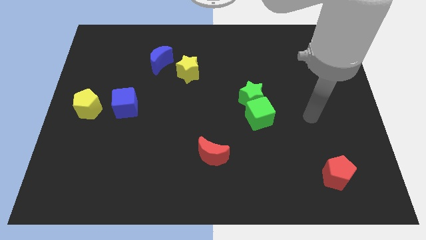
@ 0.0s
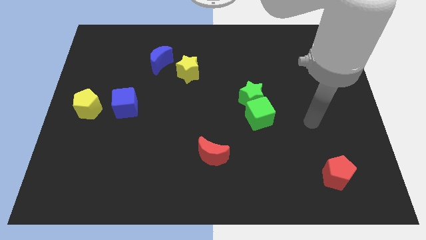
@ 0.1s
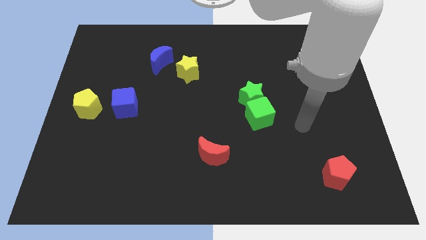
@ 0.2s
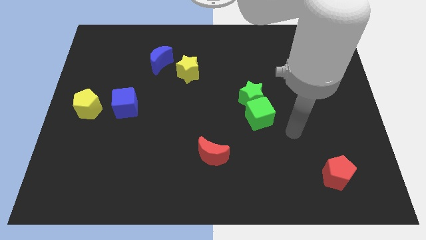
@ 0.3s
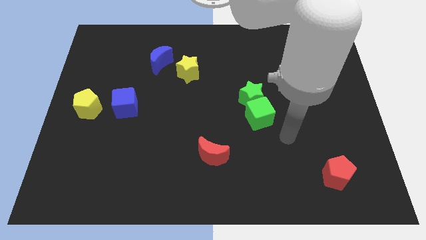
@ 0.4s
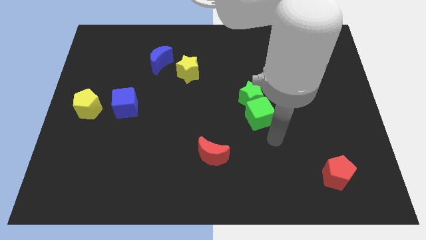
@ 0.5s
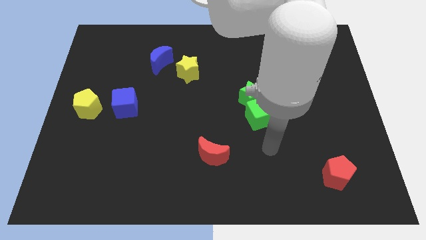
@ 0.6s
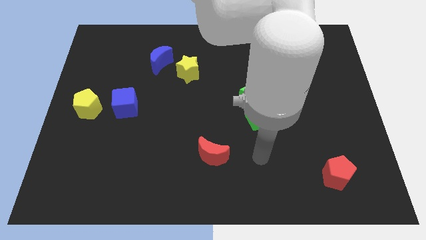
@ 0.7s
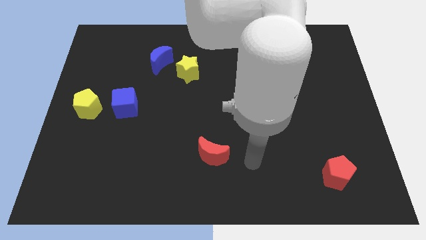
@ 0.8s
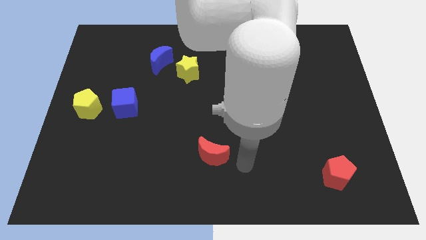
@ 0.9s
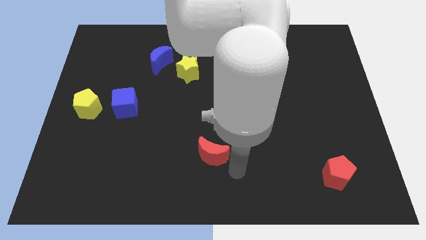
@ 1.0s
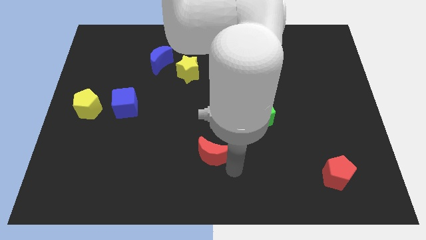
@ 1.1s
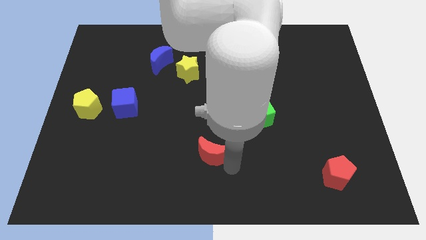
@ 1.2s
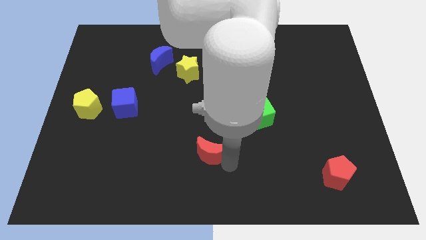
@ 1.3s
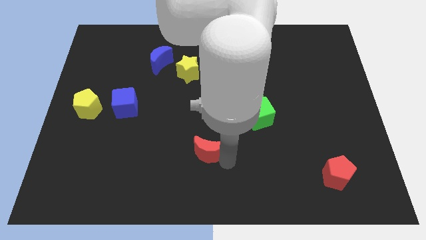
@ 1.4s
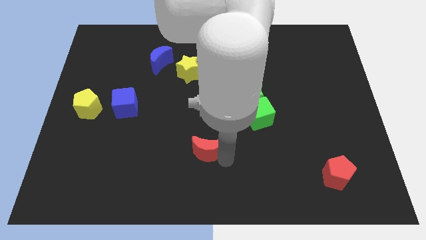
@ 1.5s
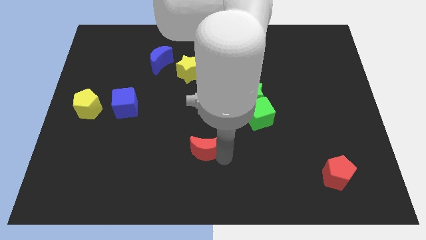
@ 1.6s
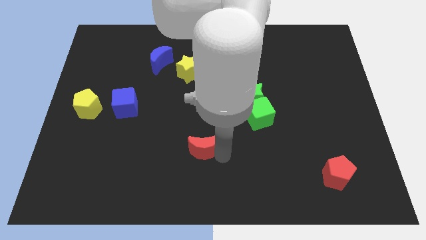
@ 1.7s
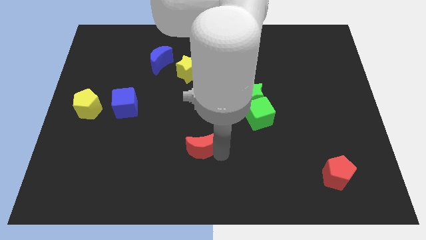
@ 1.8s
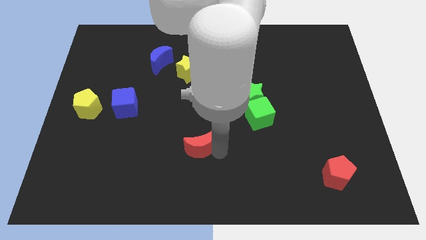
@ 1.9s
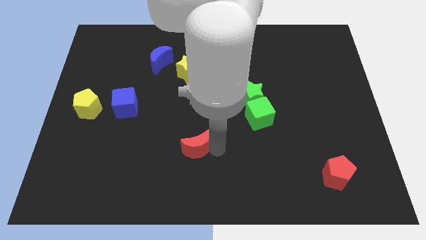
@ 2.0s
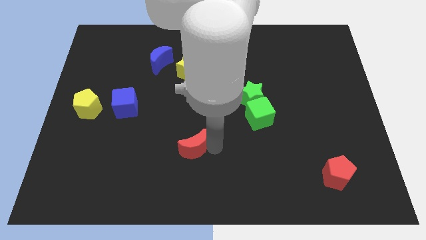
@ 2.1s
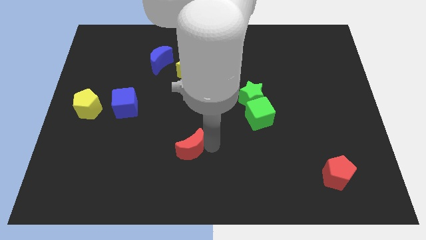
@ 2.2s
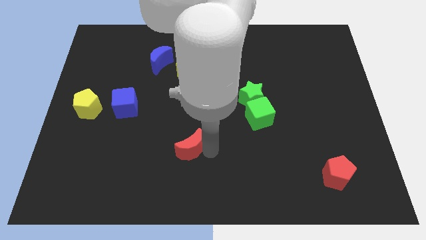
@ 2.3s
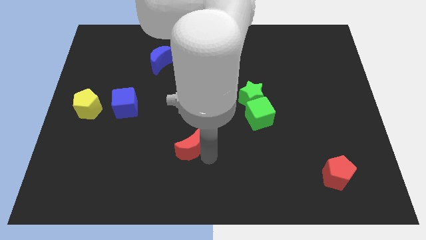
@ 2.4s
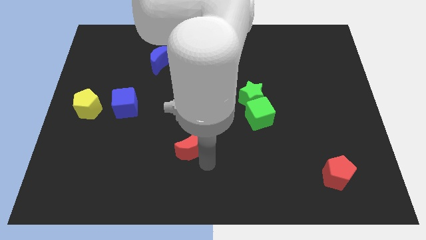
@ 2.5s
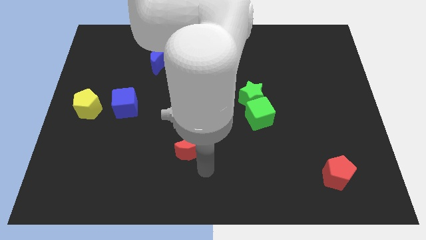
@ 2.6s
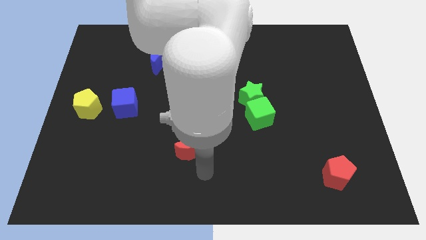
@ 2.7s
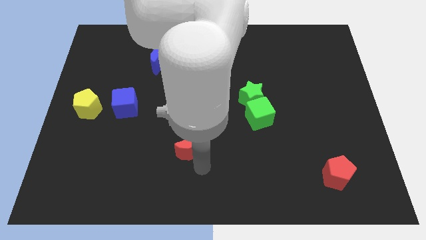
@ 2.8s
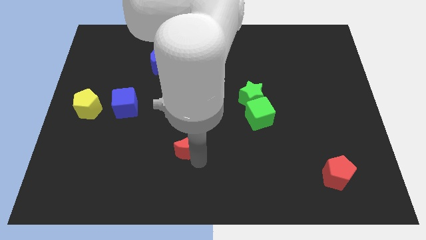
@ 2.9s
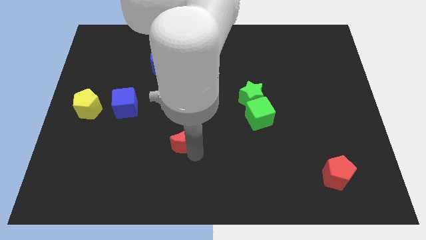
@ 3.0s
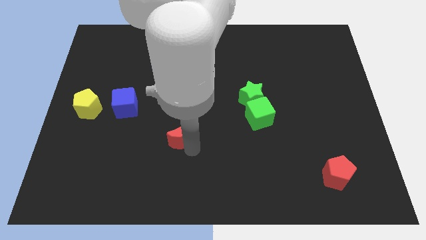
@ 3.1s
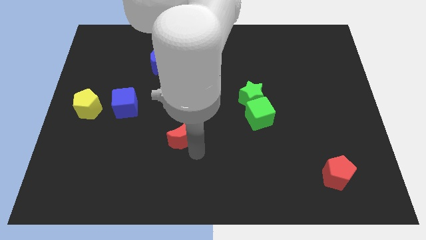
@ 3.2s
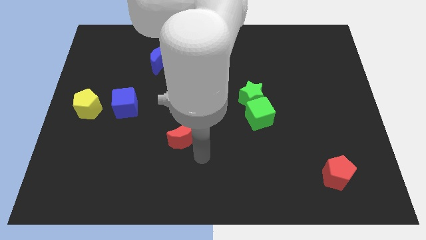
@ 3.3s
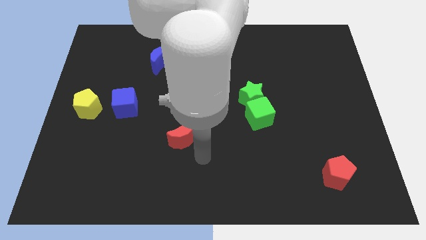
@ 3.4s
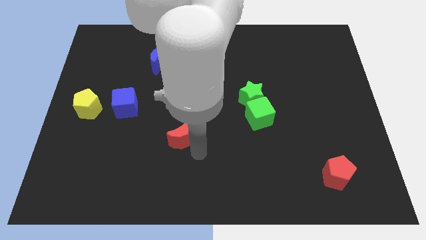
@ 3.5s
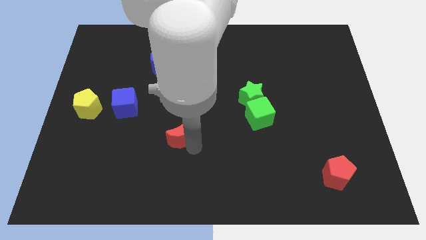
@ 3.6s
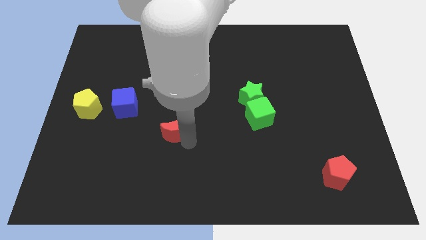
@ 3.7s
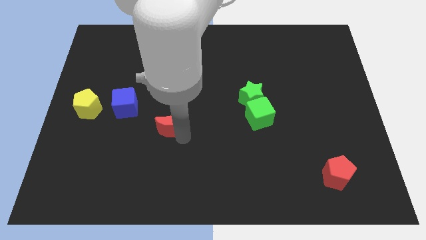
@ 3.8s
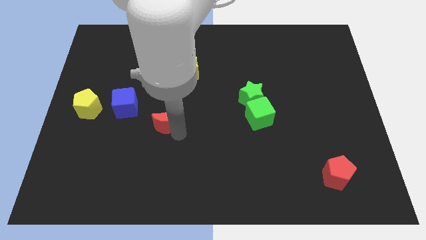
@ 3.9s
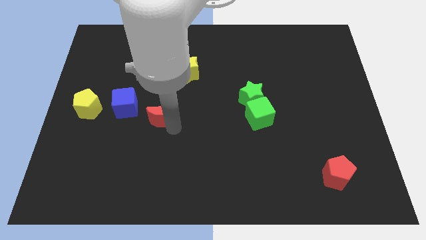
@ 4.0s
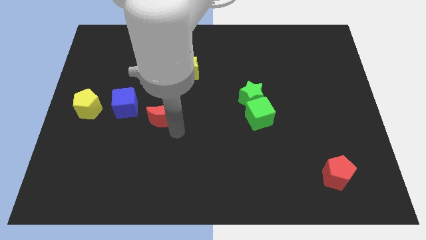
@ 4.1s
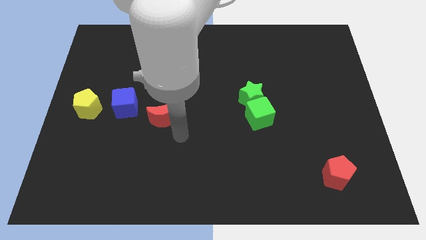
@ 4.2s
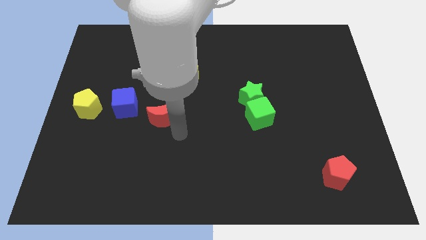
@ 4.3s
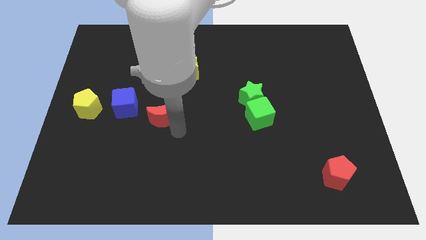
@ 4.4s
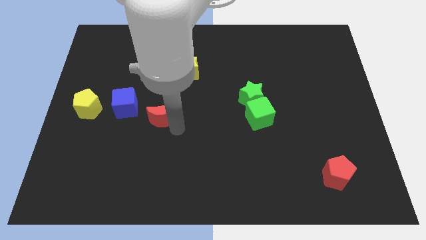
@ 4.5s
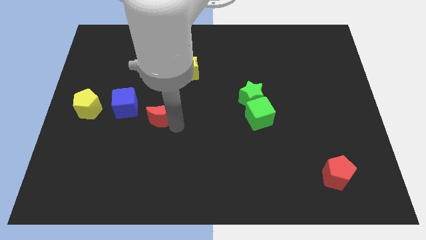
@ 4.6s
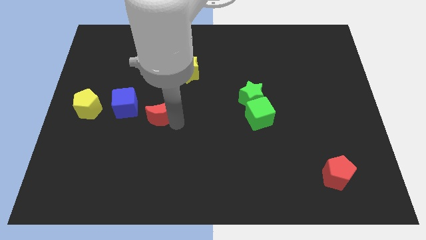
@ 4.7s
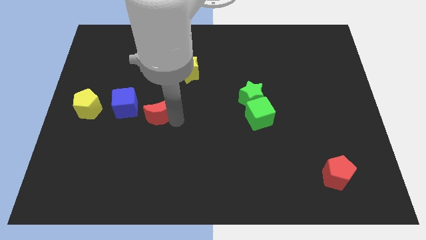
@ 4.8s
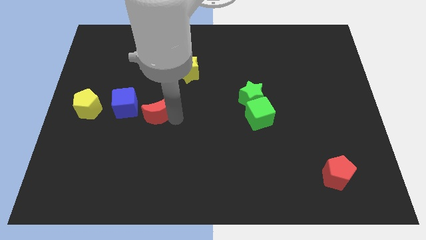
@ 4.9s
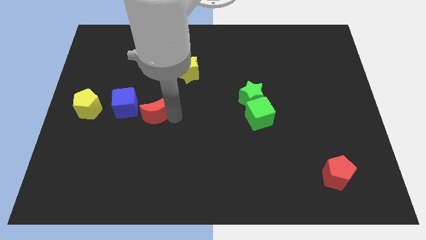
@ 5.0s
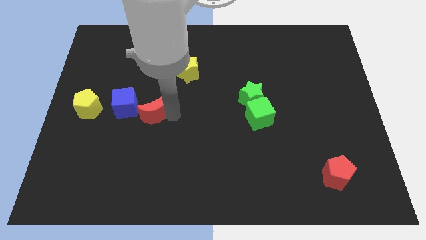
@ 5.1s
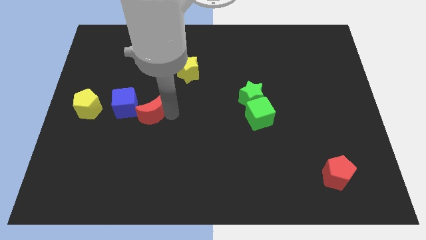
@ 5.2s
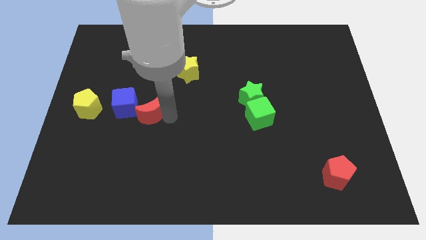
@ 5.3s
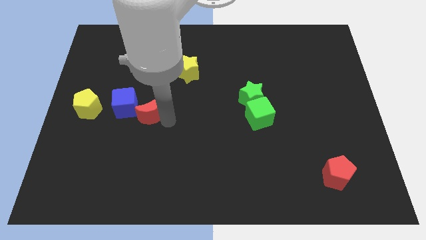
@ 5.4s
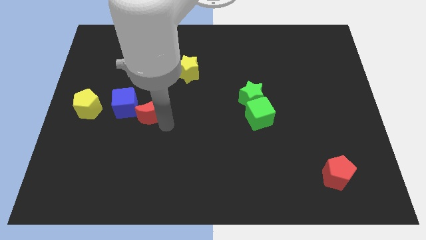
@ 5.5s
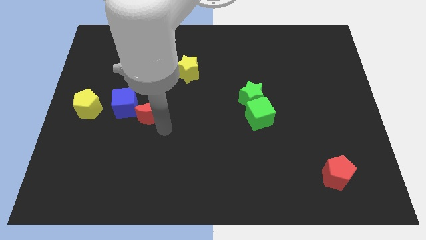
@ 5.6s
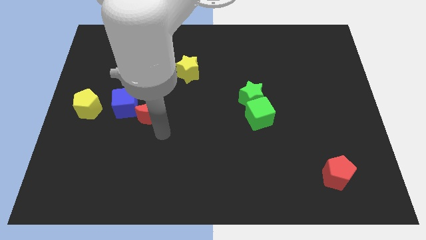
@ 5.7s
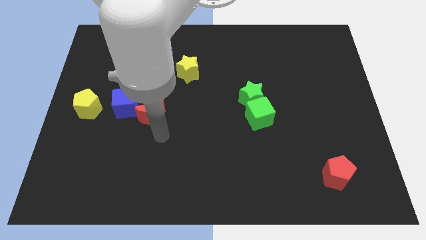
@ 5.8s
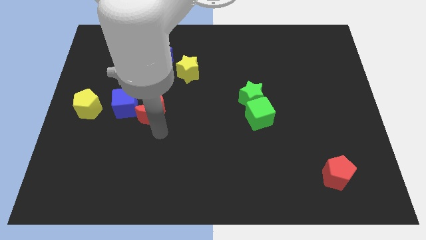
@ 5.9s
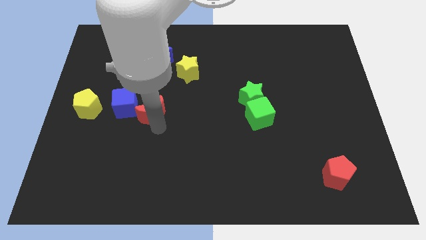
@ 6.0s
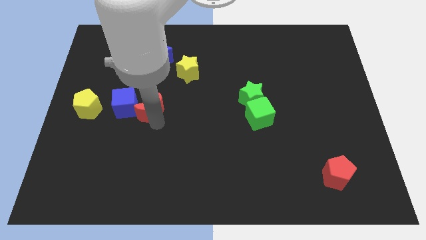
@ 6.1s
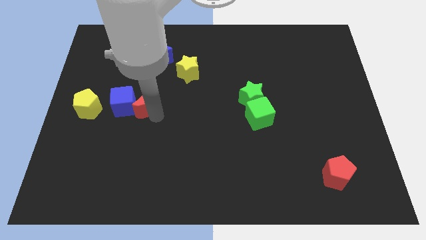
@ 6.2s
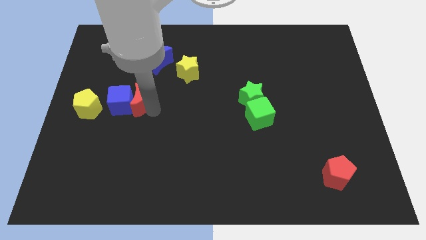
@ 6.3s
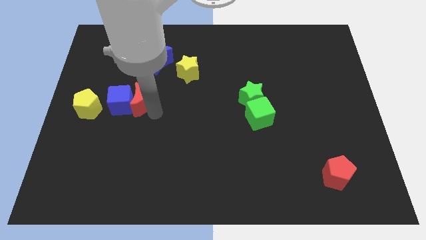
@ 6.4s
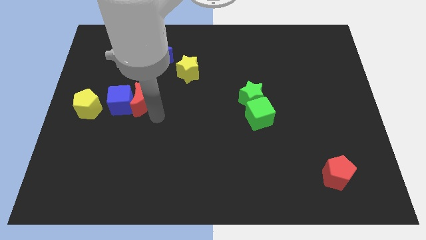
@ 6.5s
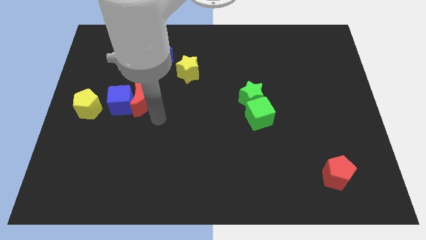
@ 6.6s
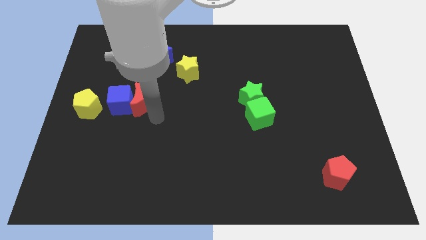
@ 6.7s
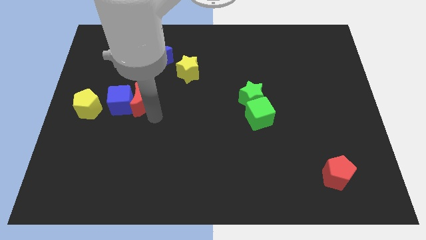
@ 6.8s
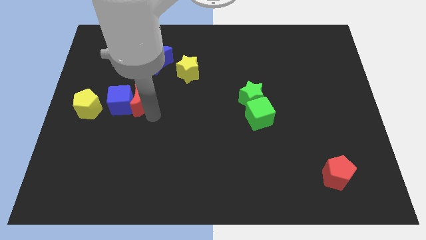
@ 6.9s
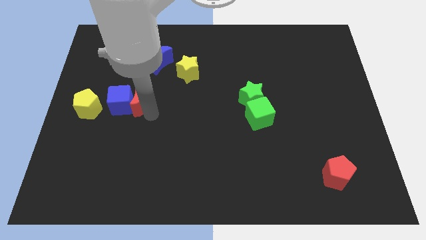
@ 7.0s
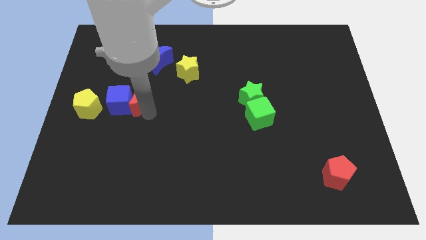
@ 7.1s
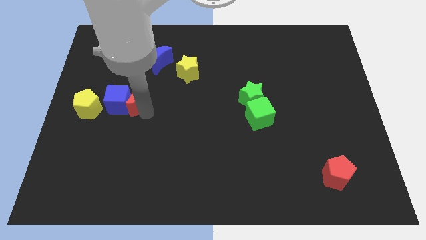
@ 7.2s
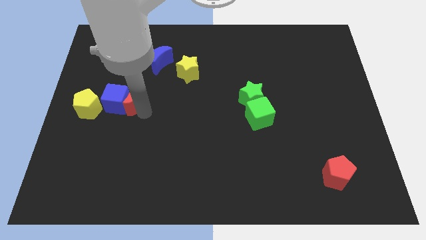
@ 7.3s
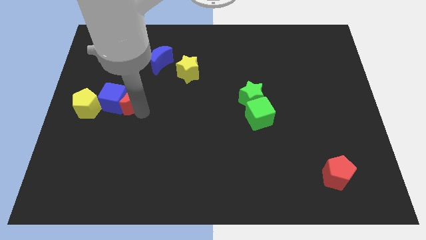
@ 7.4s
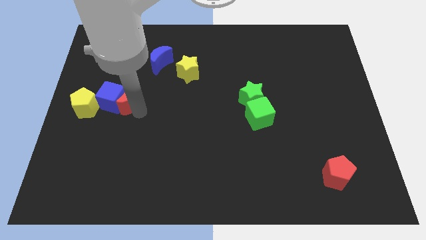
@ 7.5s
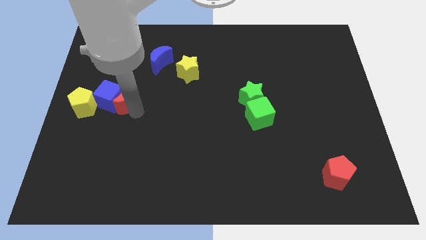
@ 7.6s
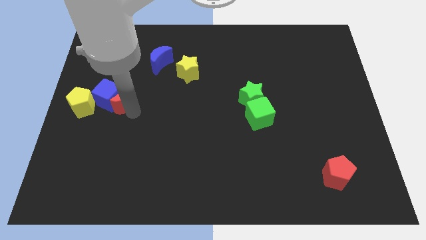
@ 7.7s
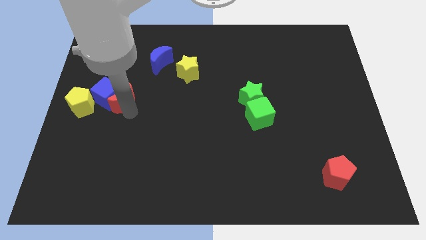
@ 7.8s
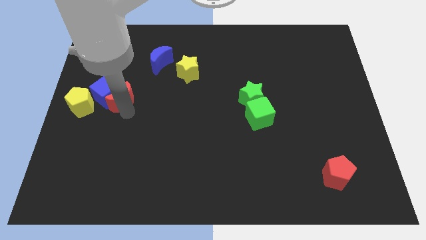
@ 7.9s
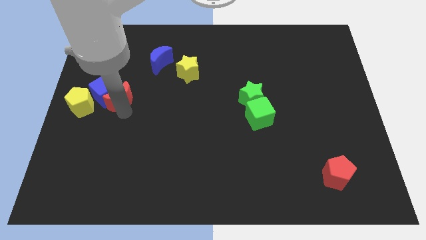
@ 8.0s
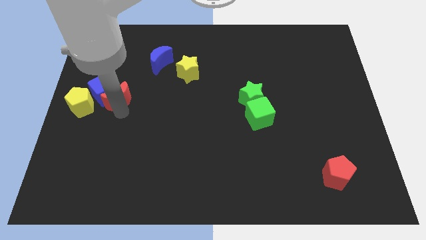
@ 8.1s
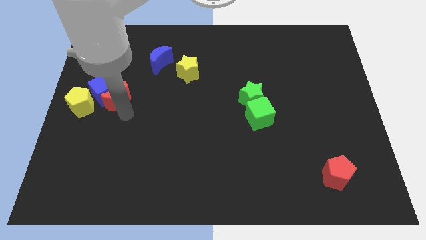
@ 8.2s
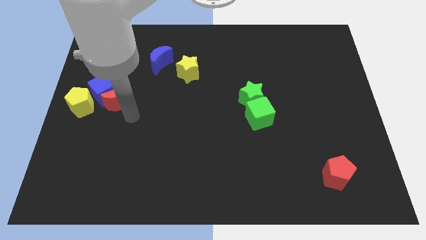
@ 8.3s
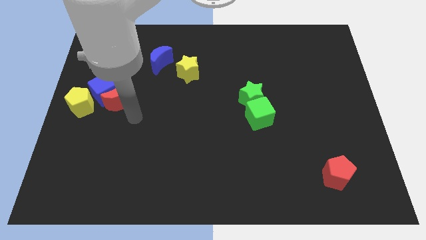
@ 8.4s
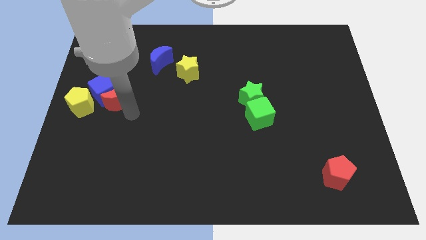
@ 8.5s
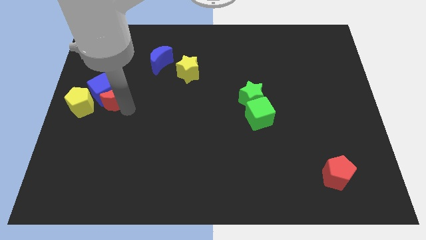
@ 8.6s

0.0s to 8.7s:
slide the red moon diagonally up and to the right of the yellow pentagon
